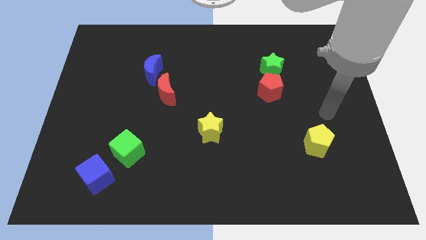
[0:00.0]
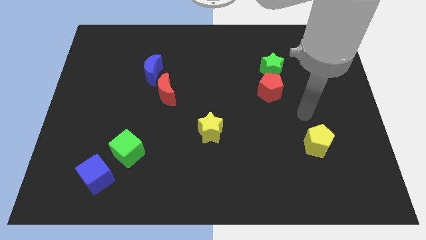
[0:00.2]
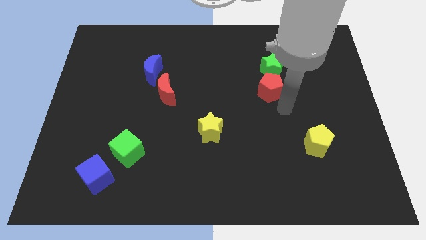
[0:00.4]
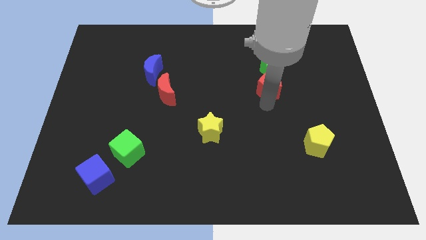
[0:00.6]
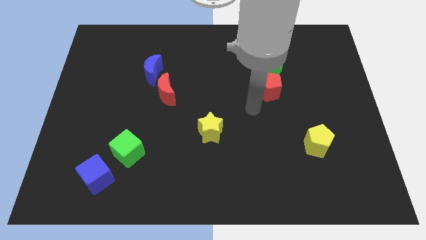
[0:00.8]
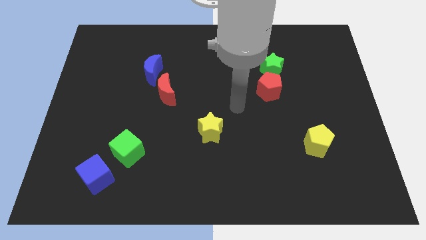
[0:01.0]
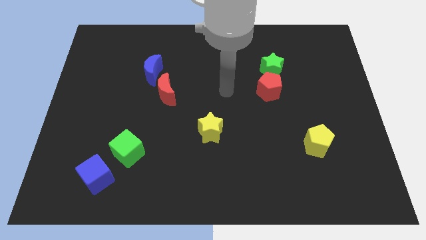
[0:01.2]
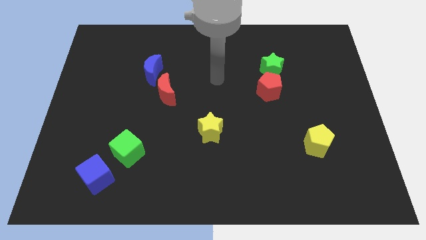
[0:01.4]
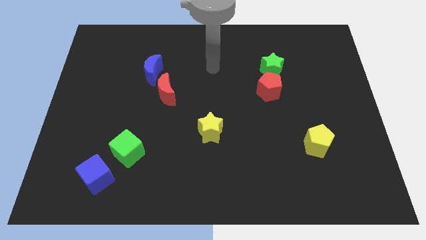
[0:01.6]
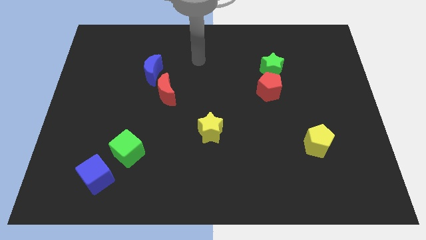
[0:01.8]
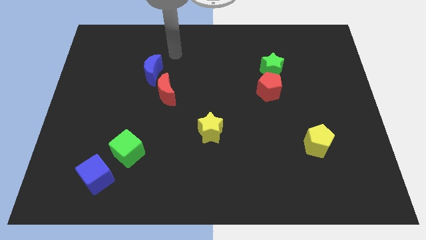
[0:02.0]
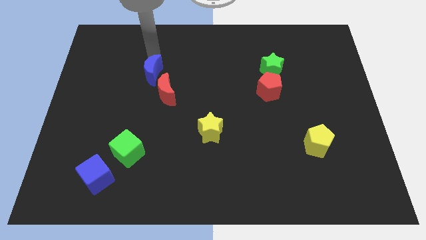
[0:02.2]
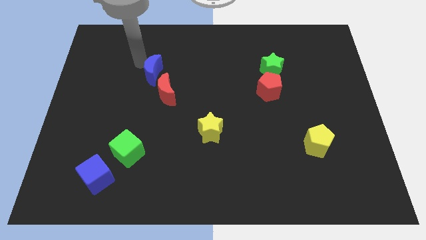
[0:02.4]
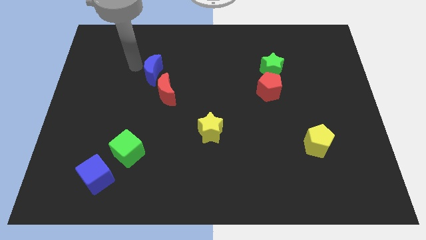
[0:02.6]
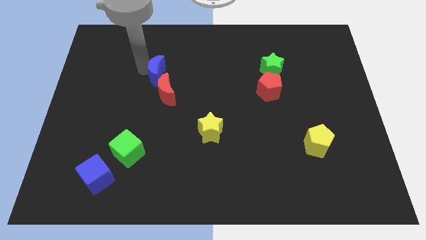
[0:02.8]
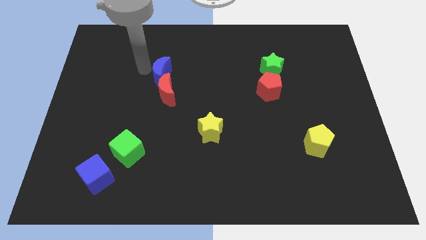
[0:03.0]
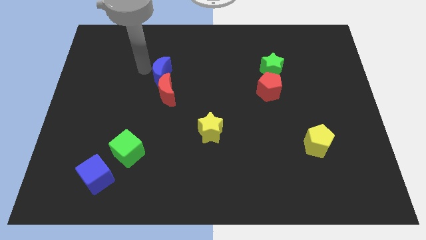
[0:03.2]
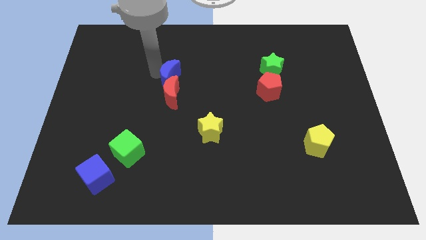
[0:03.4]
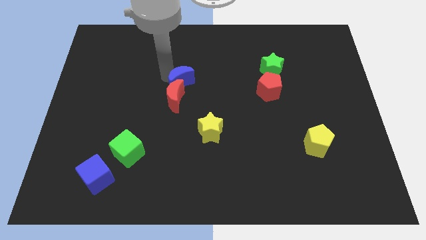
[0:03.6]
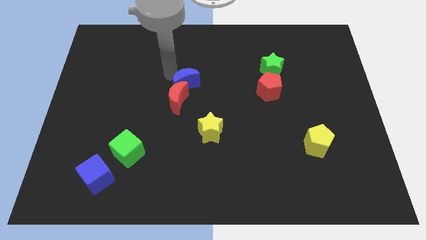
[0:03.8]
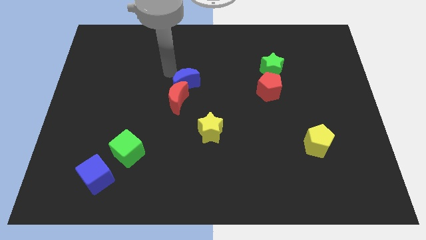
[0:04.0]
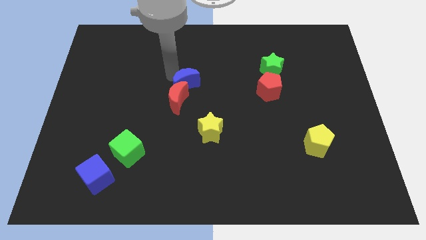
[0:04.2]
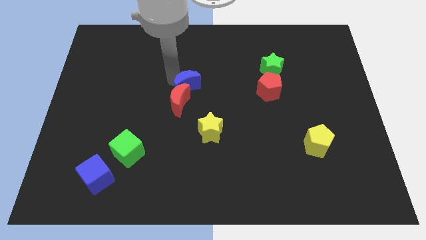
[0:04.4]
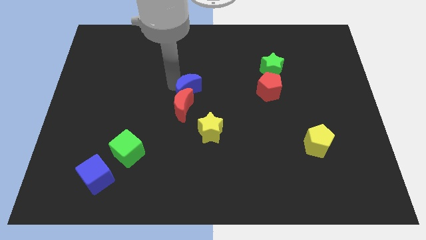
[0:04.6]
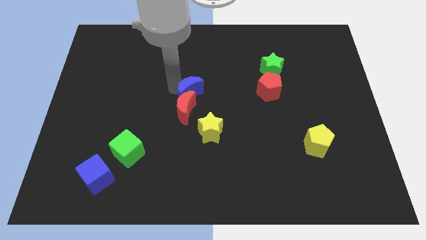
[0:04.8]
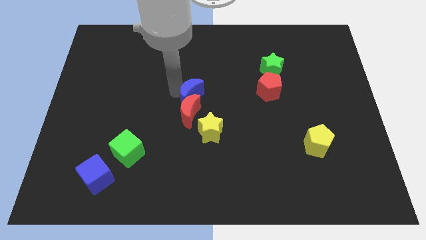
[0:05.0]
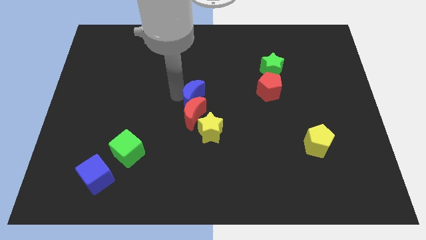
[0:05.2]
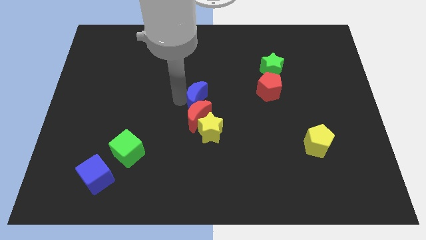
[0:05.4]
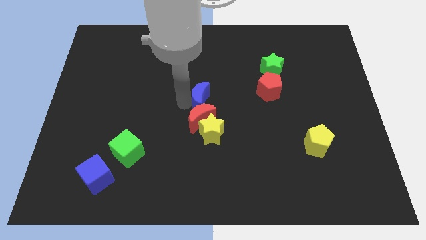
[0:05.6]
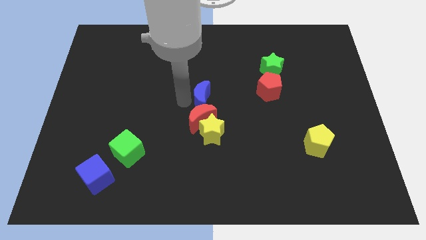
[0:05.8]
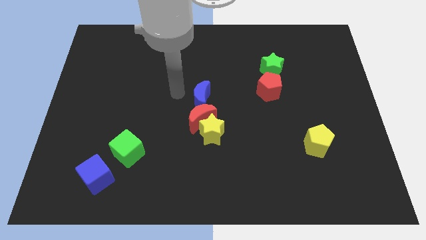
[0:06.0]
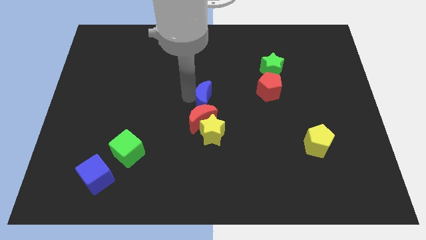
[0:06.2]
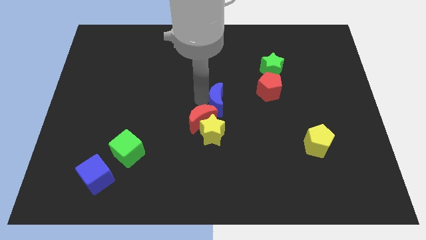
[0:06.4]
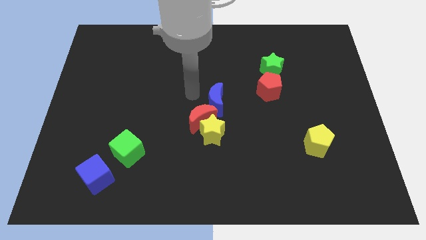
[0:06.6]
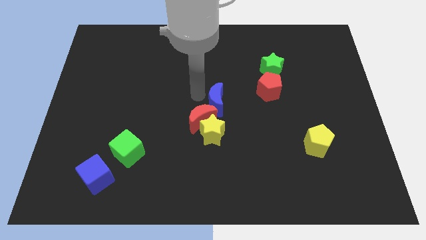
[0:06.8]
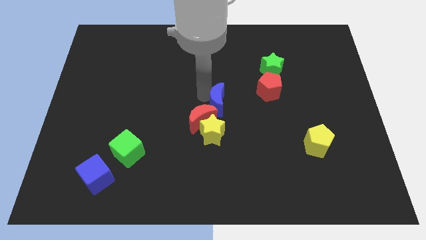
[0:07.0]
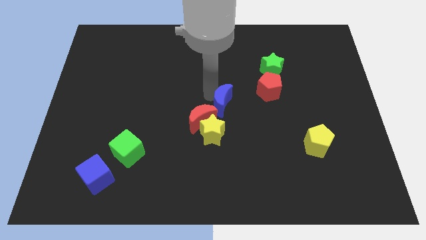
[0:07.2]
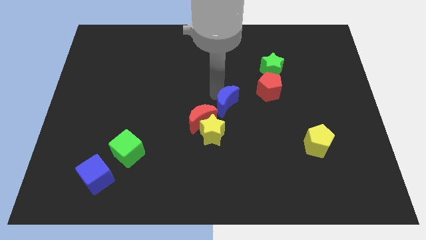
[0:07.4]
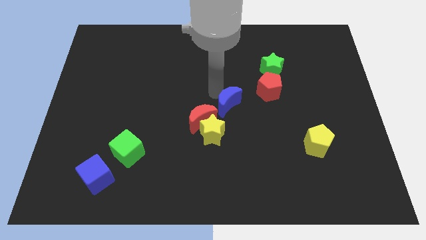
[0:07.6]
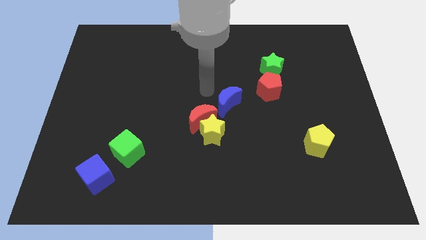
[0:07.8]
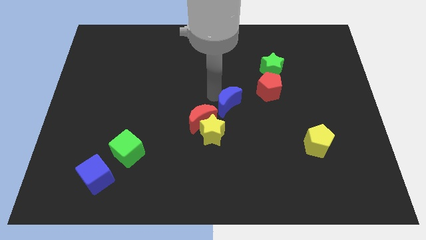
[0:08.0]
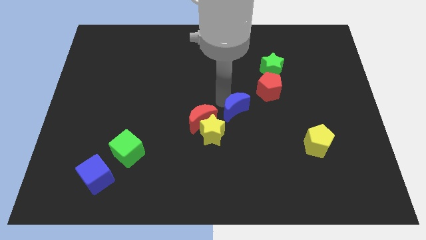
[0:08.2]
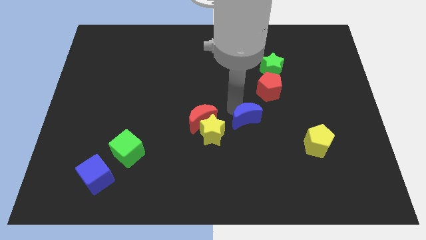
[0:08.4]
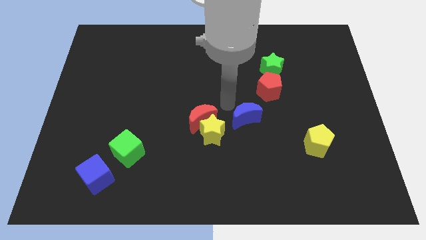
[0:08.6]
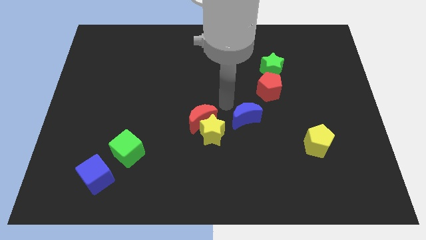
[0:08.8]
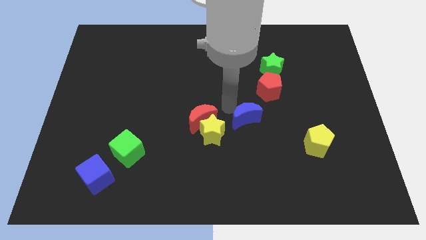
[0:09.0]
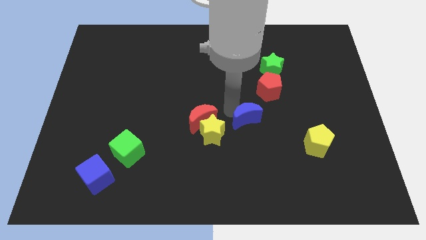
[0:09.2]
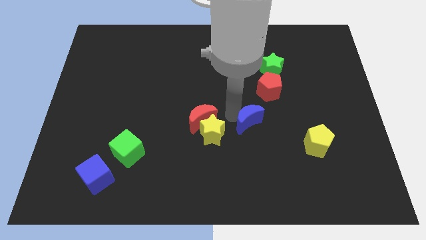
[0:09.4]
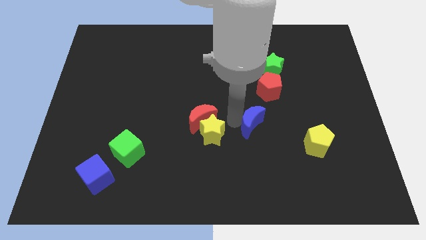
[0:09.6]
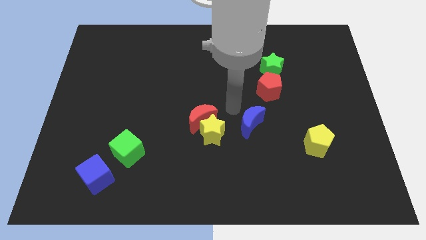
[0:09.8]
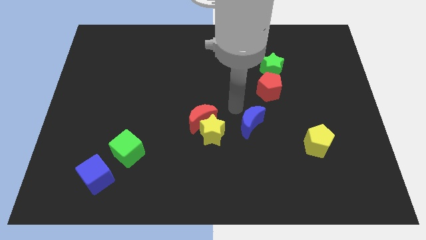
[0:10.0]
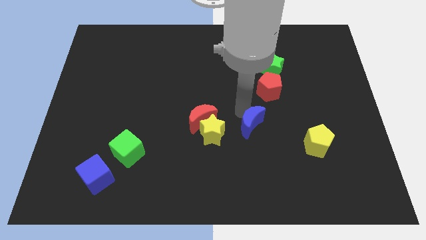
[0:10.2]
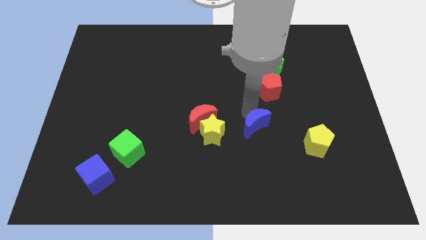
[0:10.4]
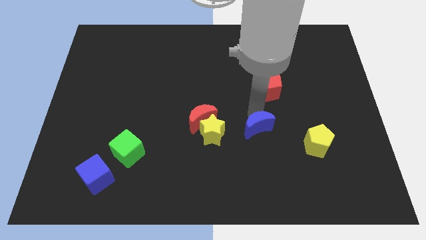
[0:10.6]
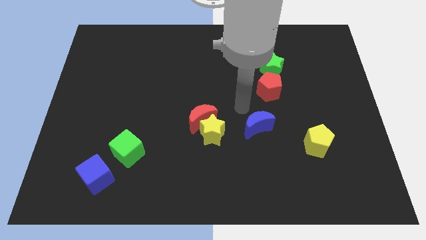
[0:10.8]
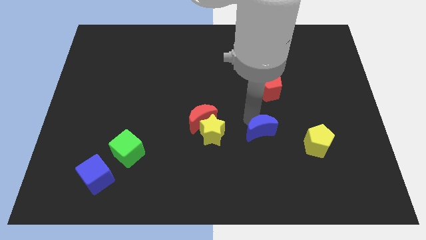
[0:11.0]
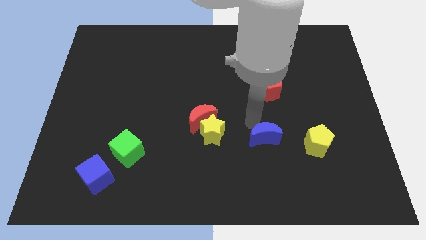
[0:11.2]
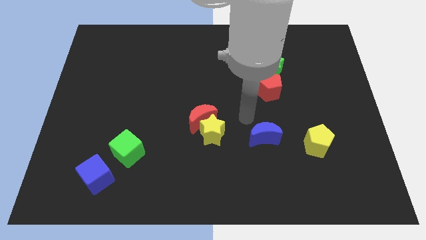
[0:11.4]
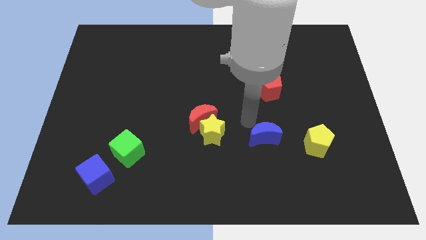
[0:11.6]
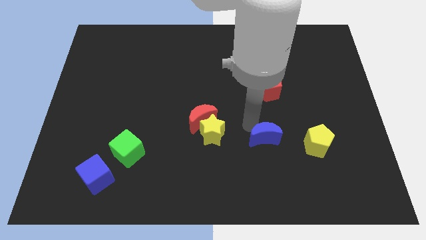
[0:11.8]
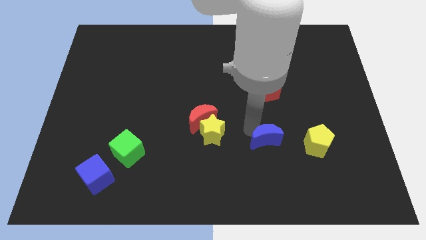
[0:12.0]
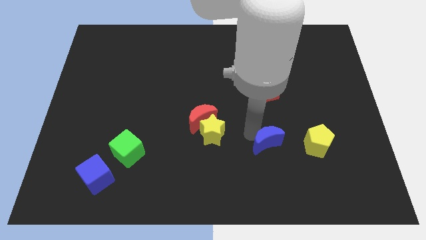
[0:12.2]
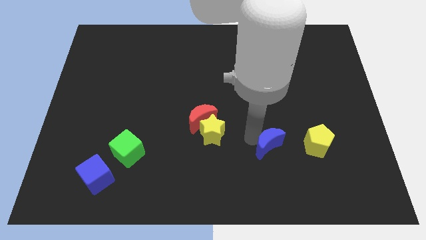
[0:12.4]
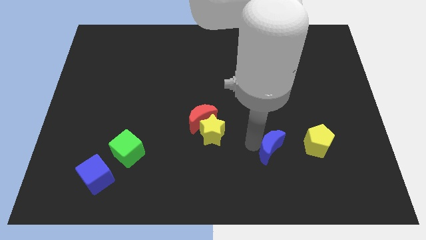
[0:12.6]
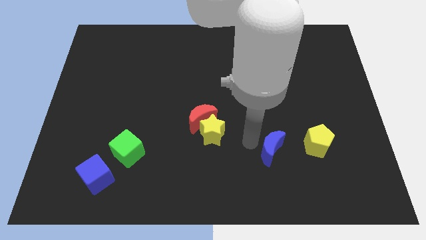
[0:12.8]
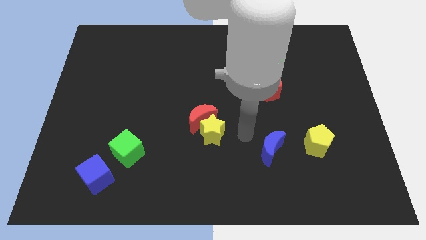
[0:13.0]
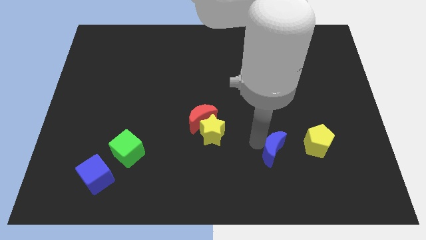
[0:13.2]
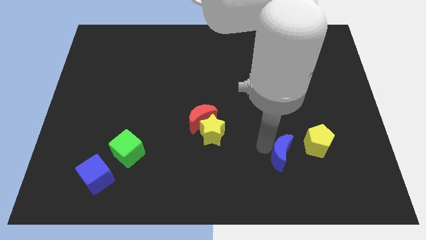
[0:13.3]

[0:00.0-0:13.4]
put the blue moon diagonally down and to the left of the yellow pentagon
